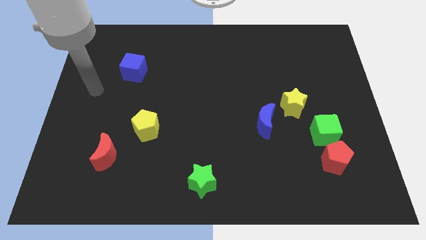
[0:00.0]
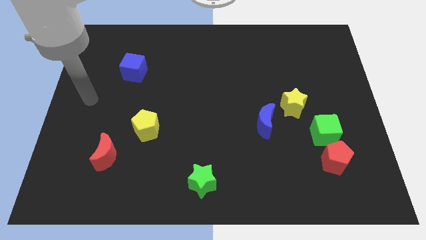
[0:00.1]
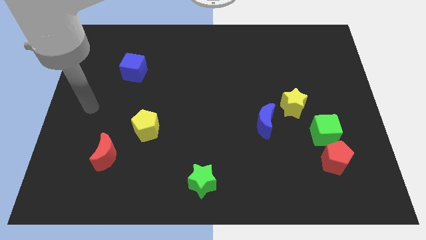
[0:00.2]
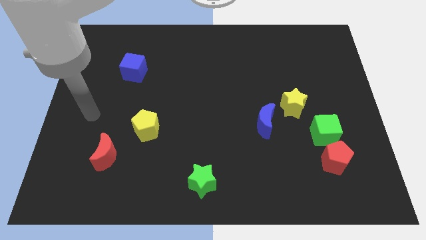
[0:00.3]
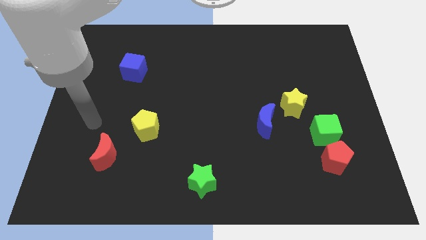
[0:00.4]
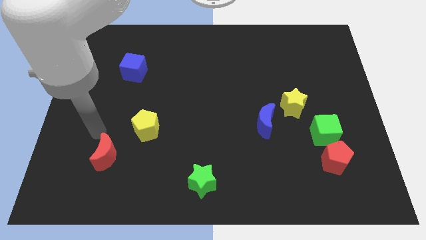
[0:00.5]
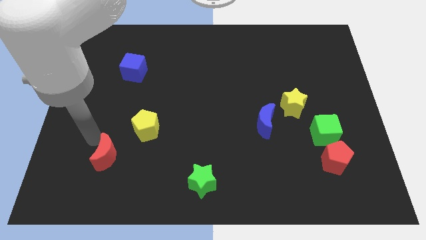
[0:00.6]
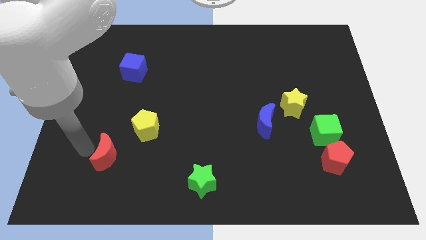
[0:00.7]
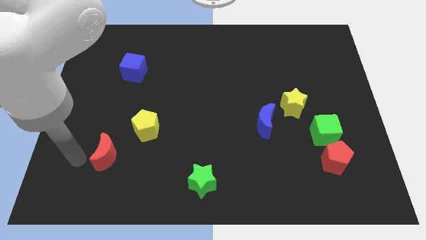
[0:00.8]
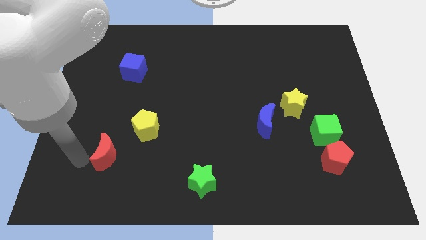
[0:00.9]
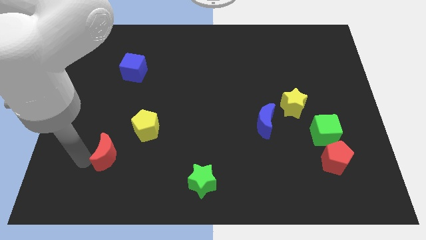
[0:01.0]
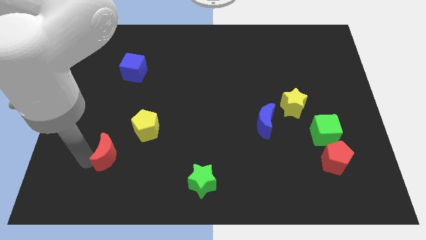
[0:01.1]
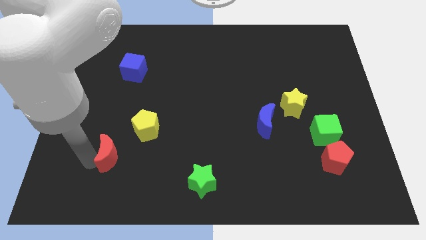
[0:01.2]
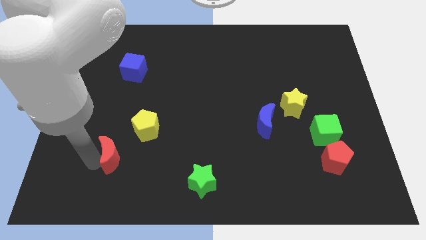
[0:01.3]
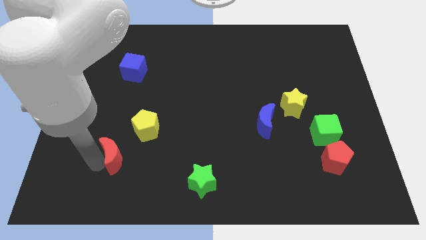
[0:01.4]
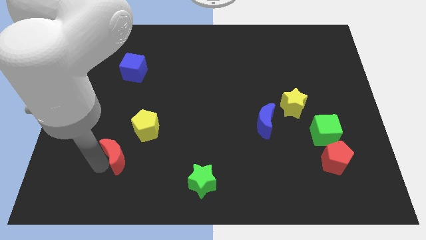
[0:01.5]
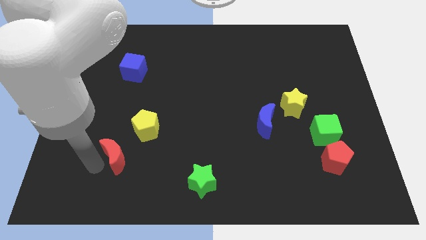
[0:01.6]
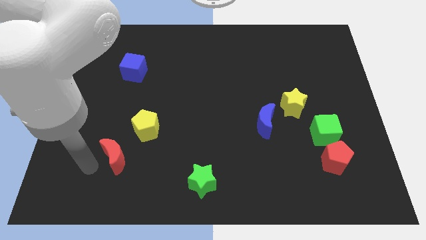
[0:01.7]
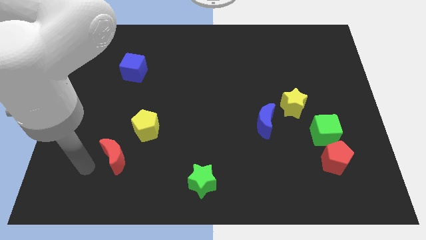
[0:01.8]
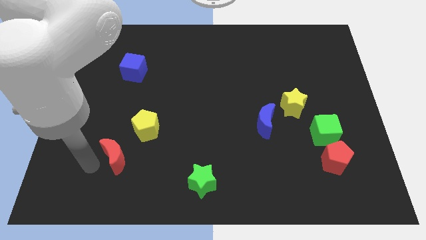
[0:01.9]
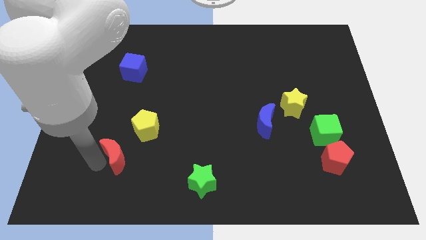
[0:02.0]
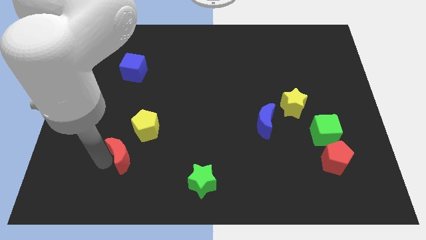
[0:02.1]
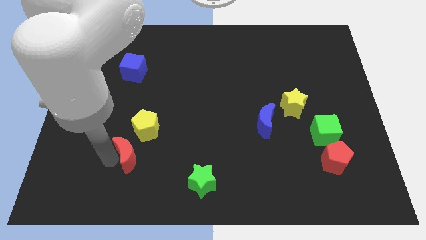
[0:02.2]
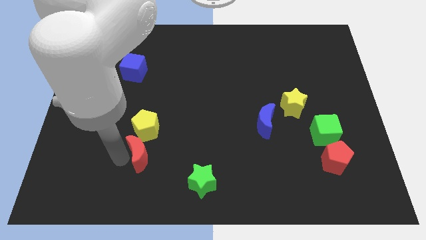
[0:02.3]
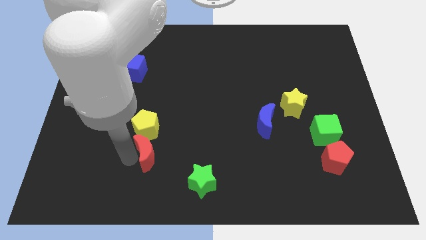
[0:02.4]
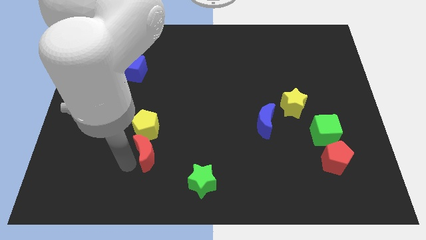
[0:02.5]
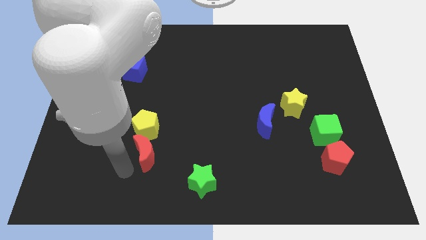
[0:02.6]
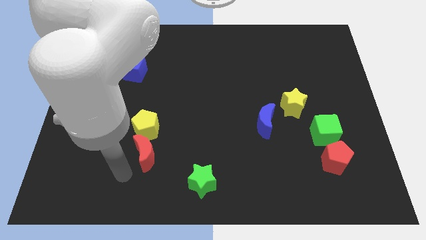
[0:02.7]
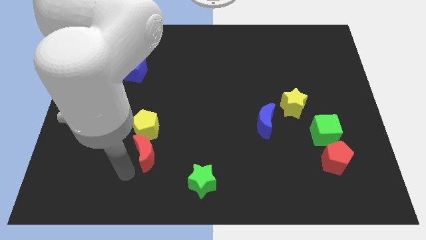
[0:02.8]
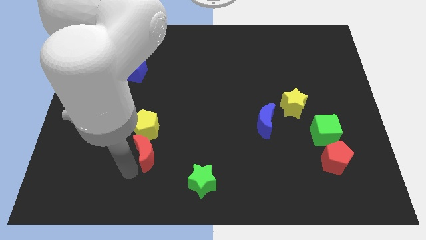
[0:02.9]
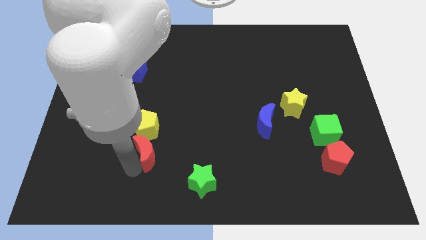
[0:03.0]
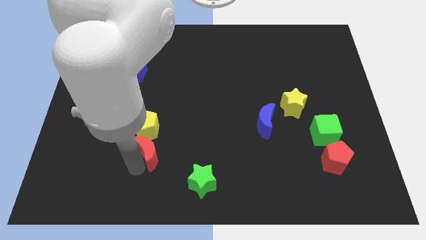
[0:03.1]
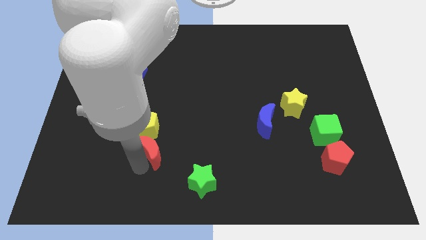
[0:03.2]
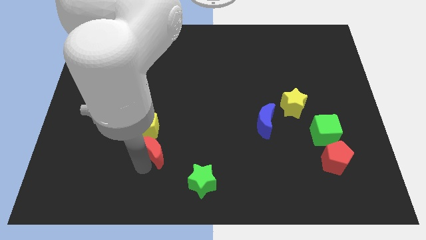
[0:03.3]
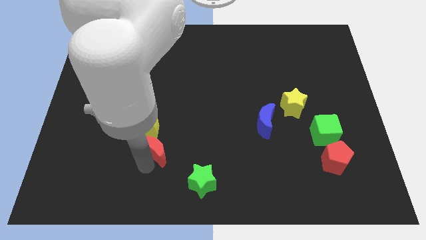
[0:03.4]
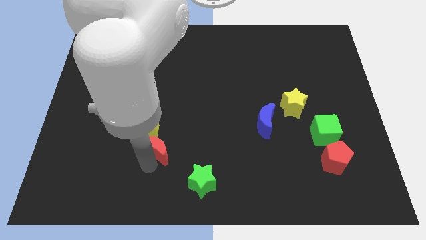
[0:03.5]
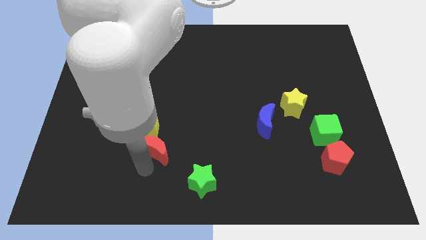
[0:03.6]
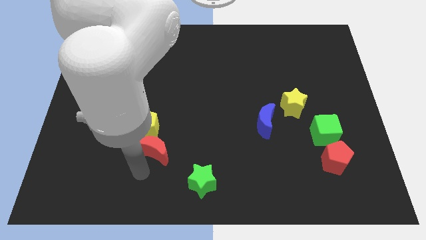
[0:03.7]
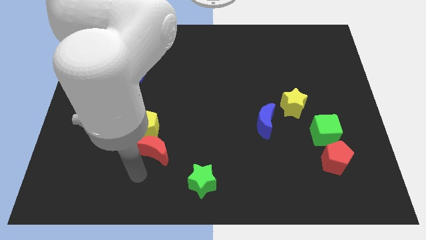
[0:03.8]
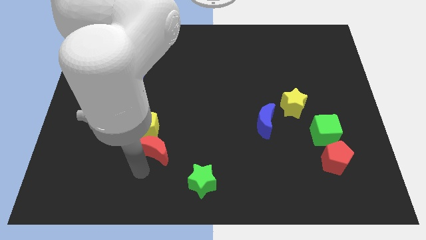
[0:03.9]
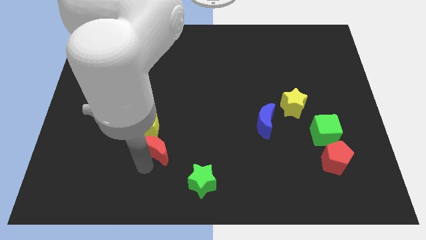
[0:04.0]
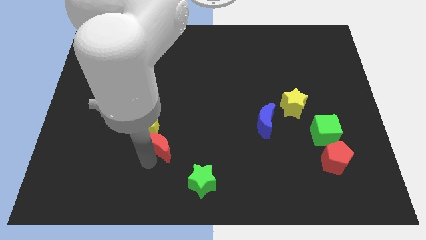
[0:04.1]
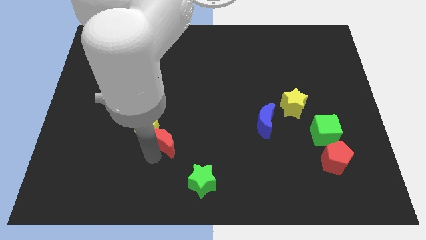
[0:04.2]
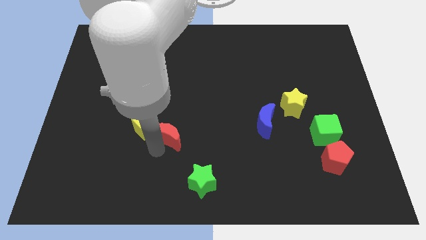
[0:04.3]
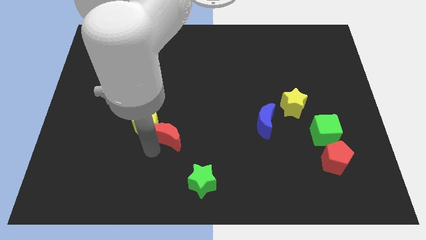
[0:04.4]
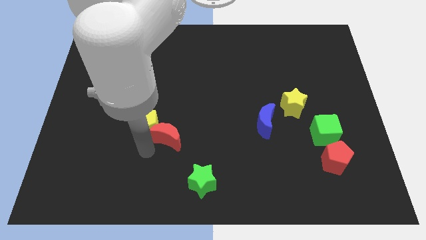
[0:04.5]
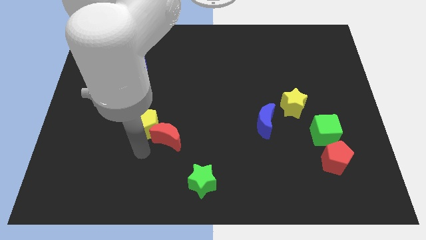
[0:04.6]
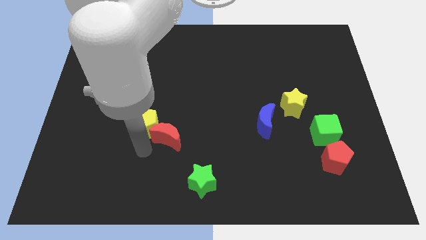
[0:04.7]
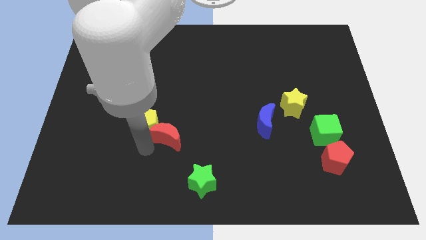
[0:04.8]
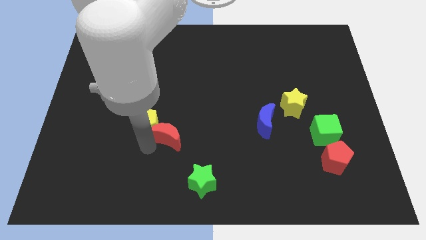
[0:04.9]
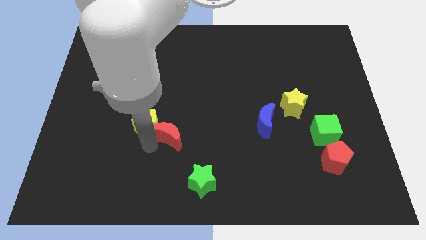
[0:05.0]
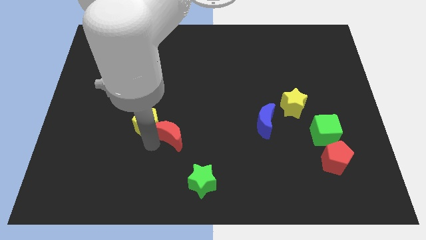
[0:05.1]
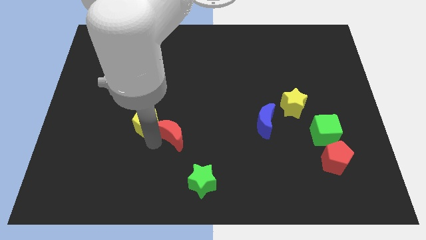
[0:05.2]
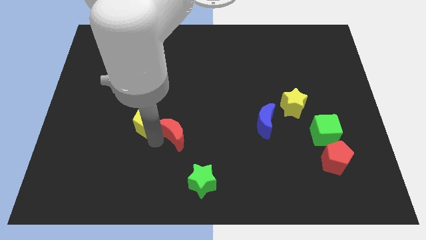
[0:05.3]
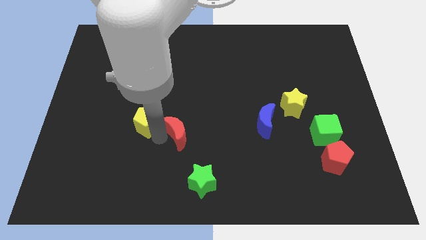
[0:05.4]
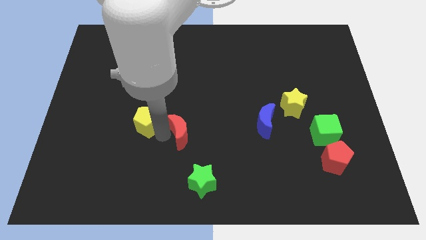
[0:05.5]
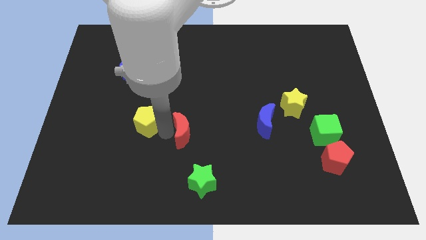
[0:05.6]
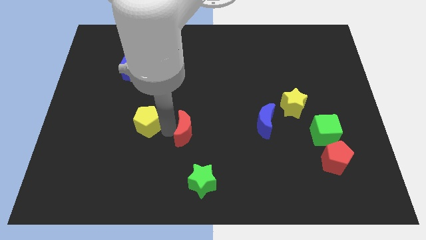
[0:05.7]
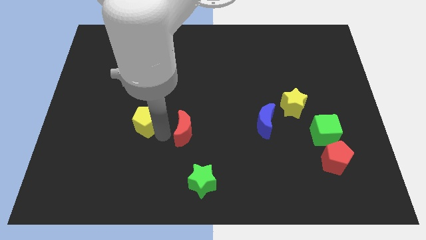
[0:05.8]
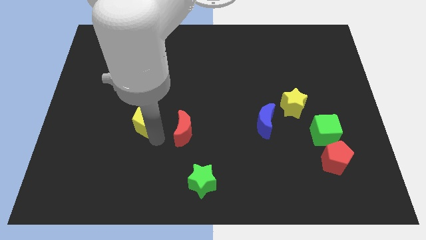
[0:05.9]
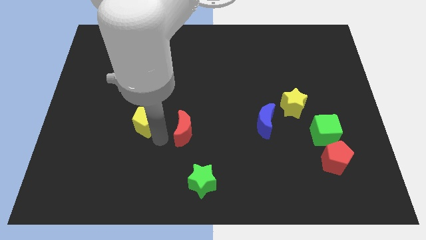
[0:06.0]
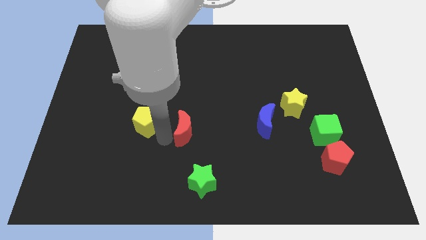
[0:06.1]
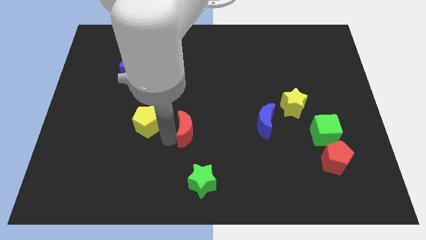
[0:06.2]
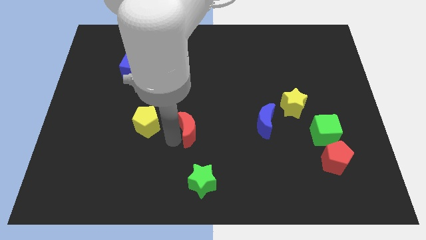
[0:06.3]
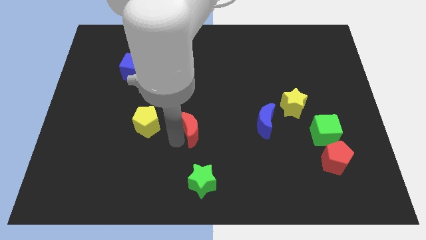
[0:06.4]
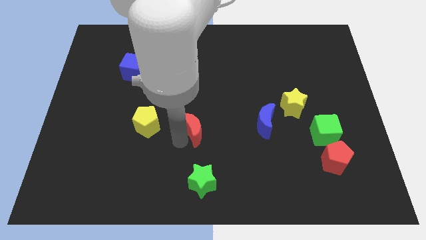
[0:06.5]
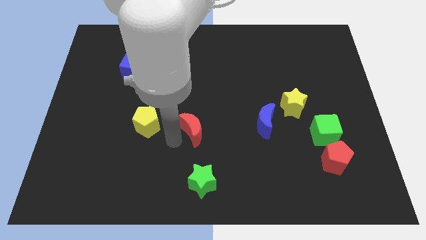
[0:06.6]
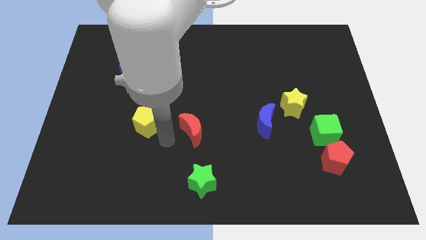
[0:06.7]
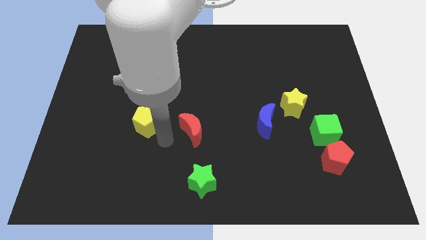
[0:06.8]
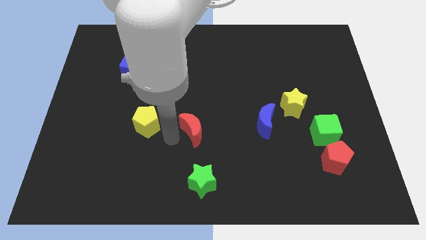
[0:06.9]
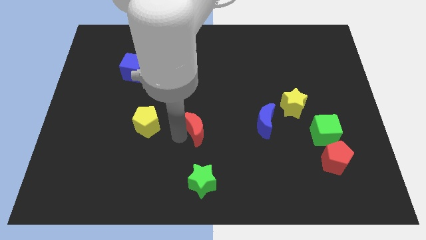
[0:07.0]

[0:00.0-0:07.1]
move the red moon left of the blue moon
